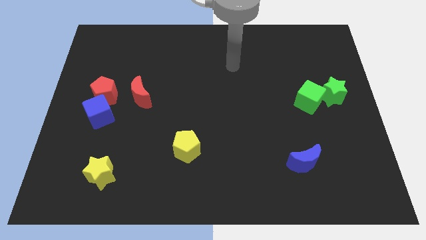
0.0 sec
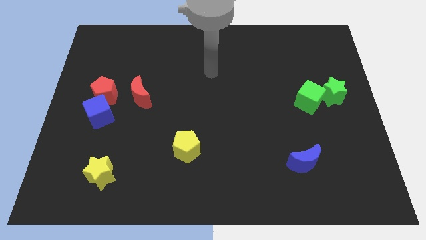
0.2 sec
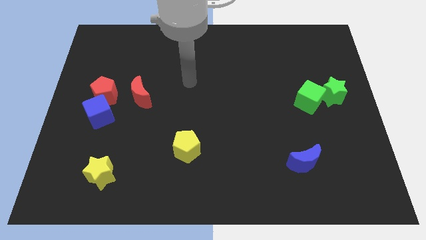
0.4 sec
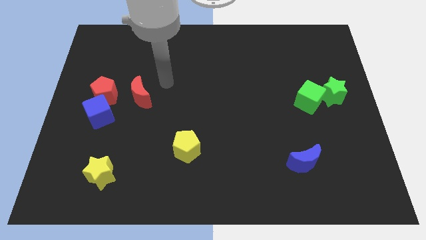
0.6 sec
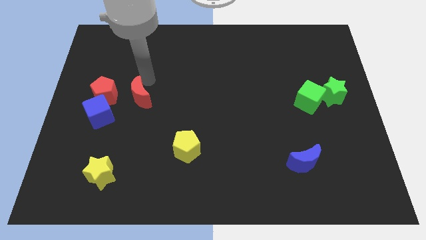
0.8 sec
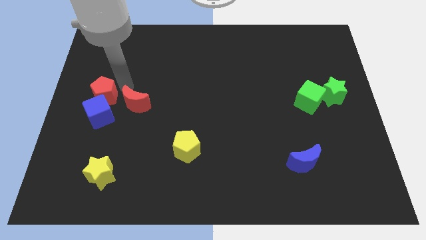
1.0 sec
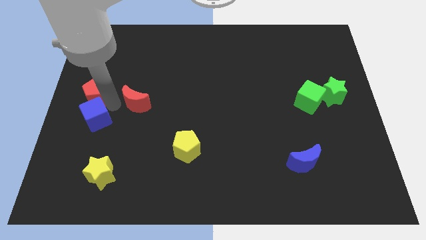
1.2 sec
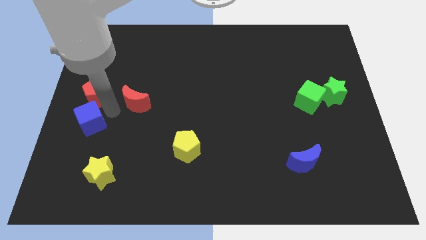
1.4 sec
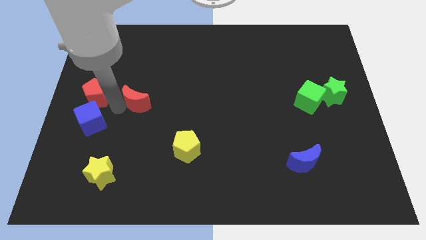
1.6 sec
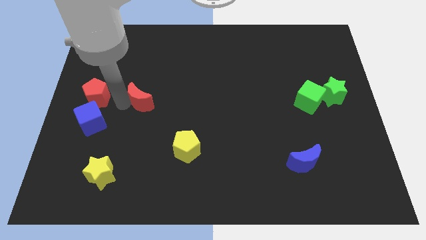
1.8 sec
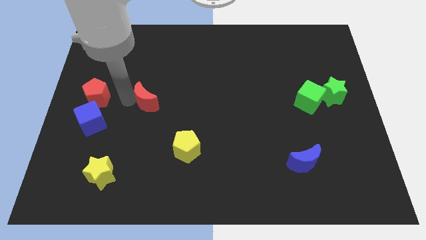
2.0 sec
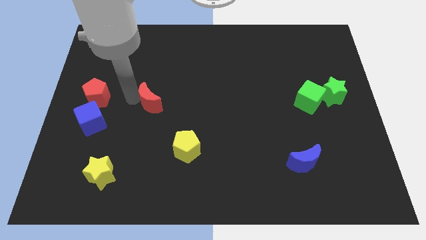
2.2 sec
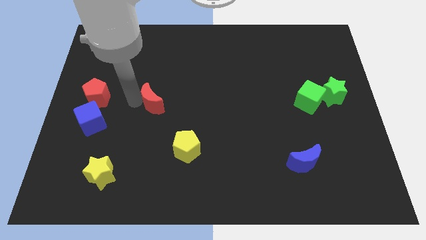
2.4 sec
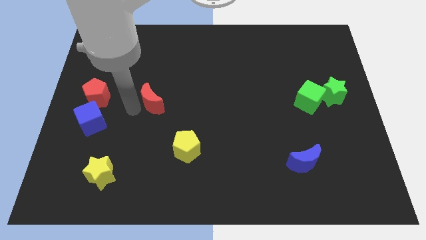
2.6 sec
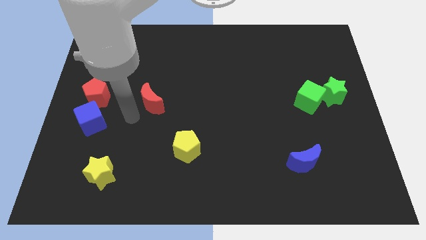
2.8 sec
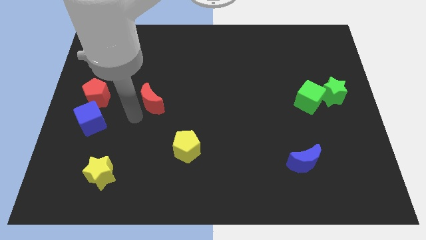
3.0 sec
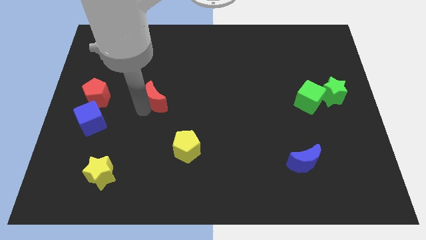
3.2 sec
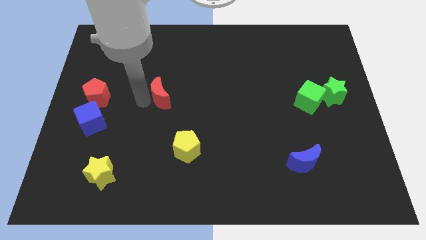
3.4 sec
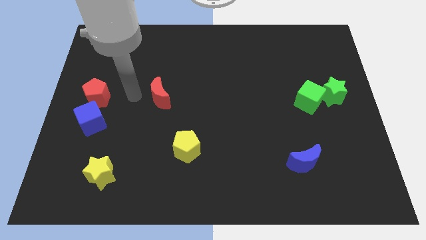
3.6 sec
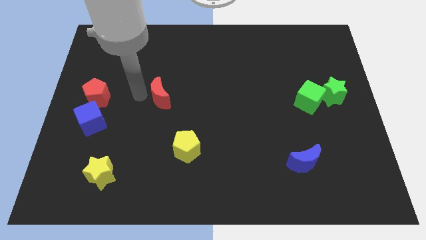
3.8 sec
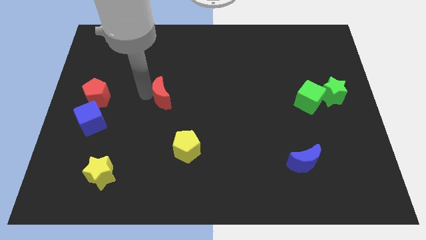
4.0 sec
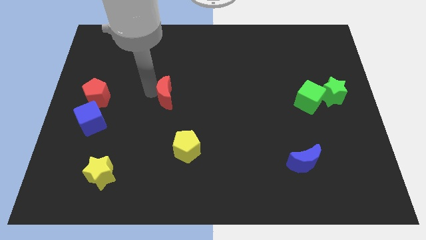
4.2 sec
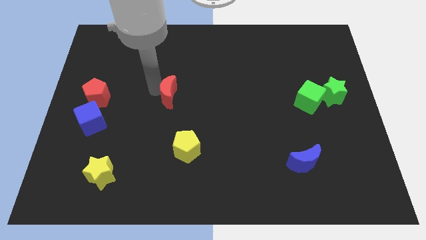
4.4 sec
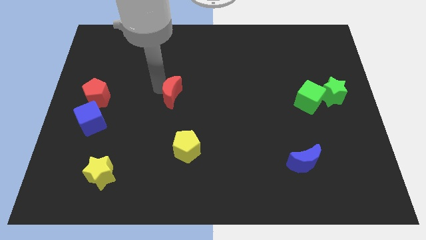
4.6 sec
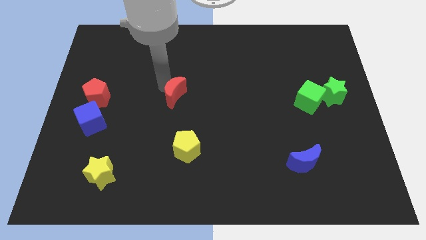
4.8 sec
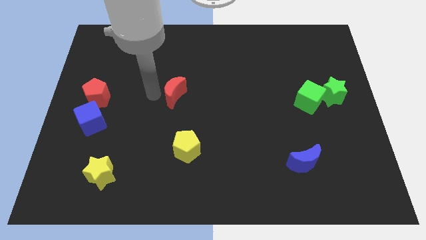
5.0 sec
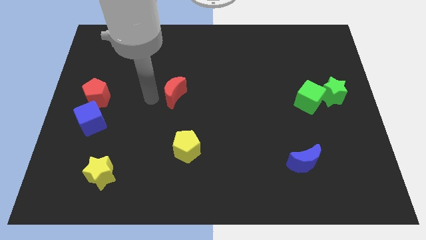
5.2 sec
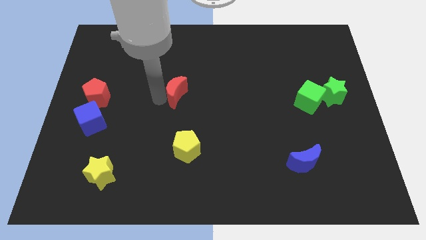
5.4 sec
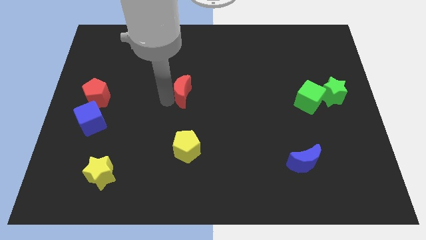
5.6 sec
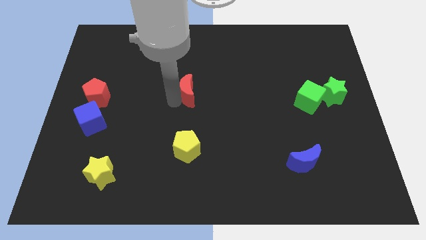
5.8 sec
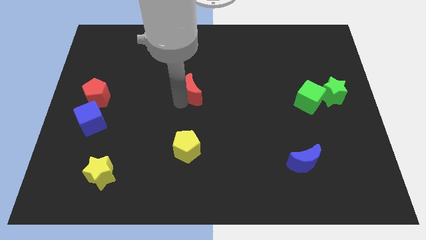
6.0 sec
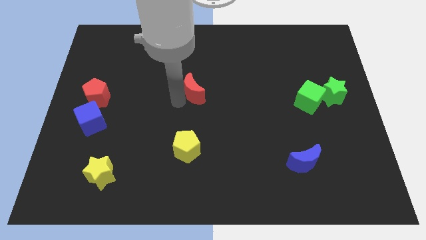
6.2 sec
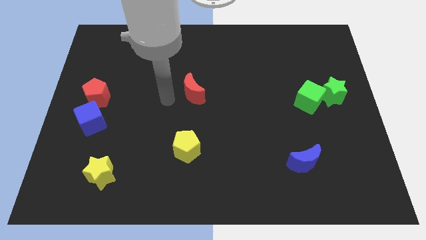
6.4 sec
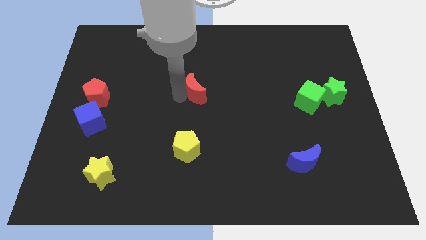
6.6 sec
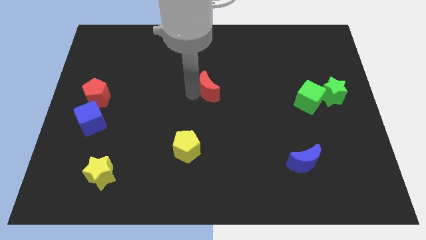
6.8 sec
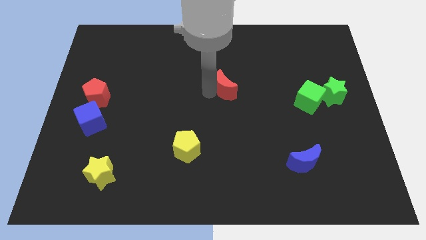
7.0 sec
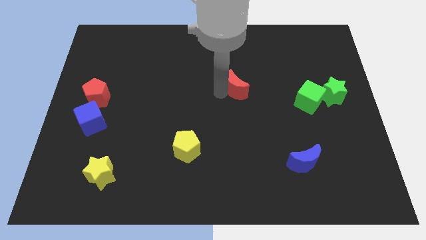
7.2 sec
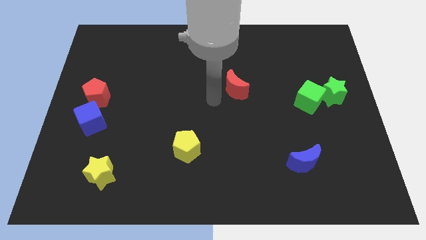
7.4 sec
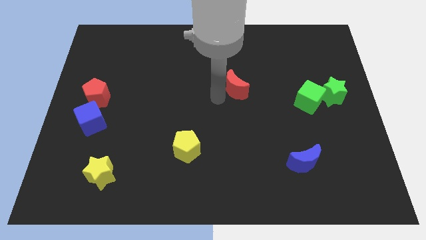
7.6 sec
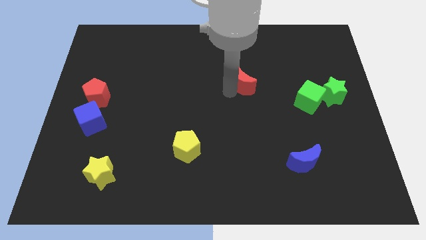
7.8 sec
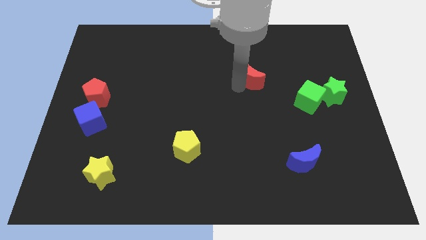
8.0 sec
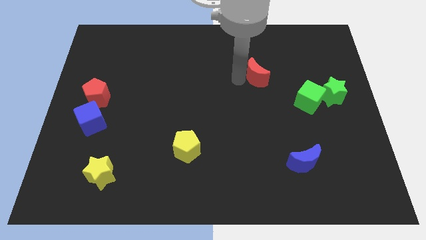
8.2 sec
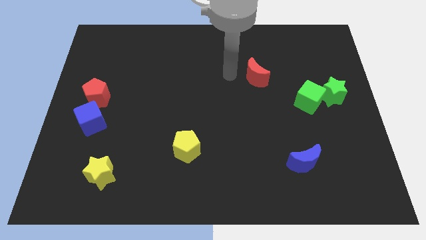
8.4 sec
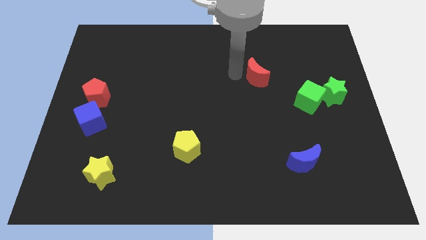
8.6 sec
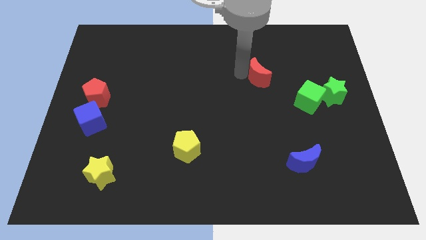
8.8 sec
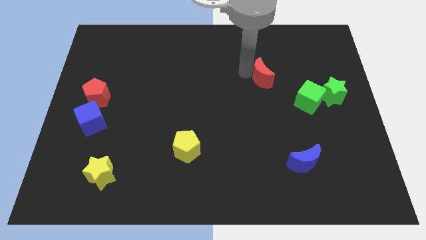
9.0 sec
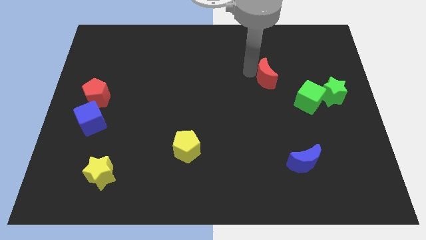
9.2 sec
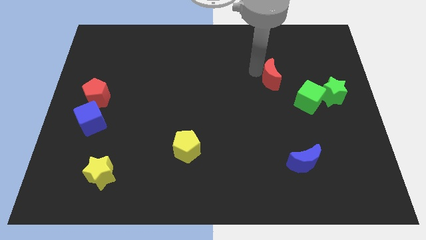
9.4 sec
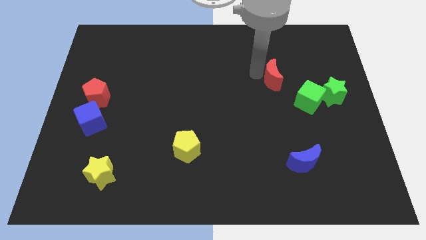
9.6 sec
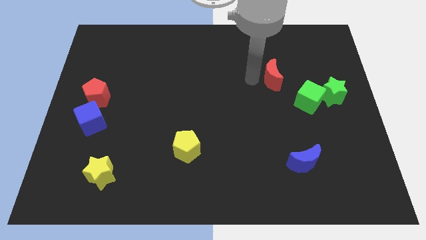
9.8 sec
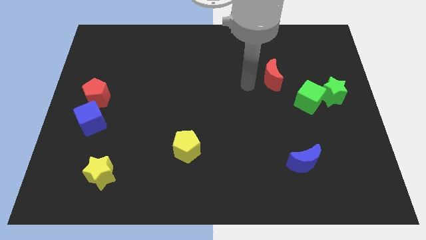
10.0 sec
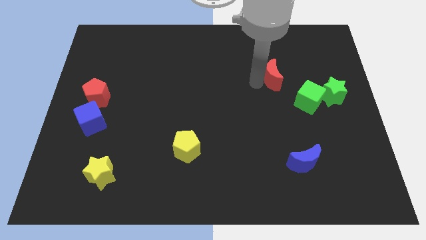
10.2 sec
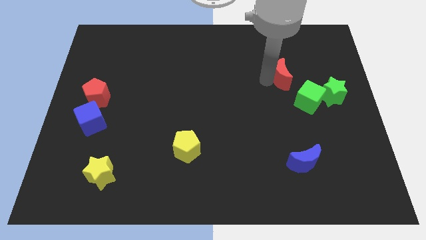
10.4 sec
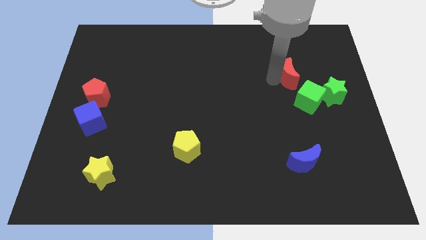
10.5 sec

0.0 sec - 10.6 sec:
slide the red moon to the top side of the green cube

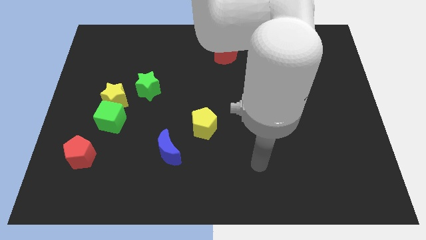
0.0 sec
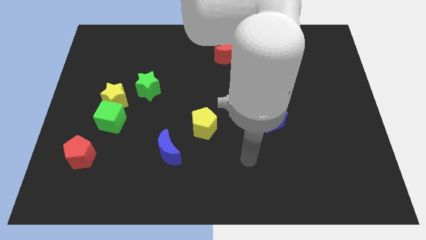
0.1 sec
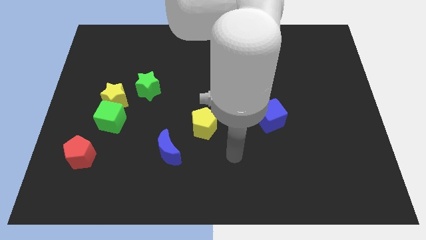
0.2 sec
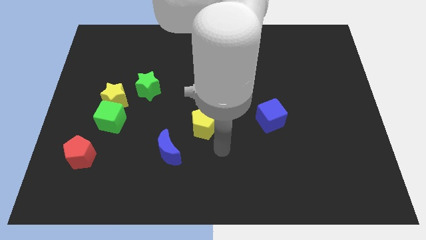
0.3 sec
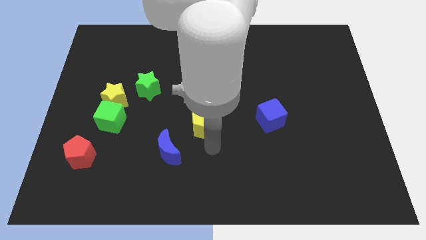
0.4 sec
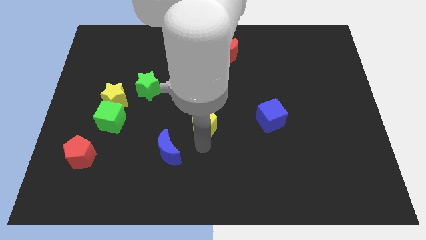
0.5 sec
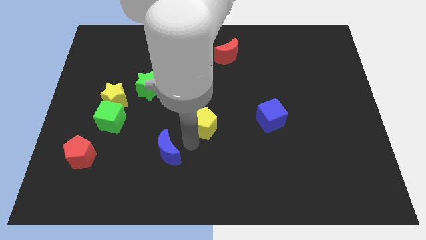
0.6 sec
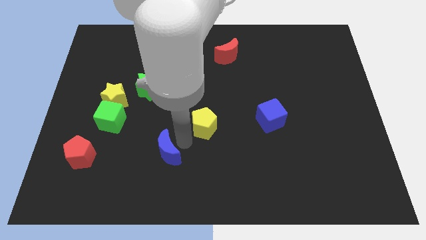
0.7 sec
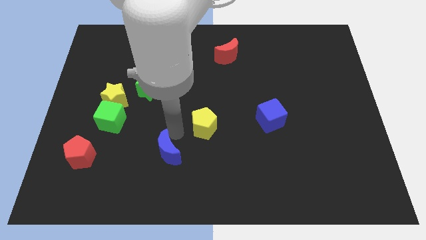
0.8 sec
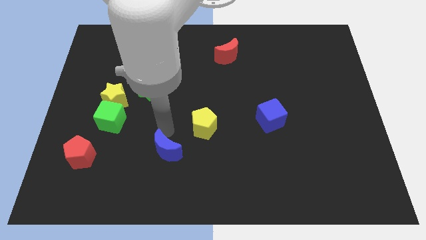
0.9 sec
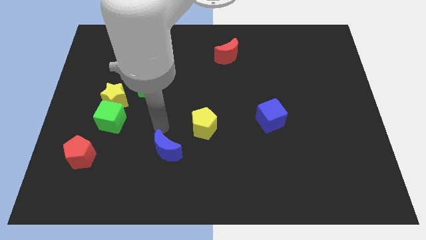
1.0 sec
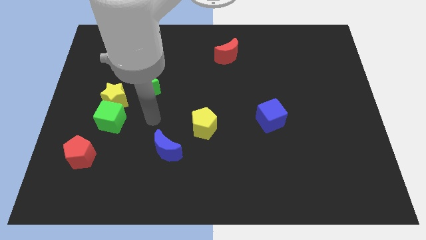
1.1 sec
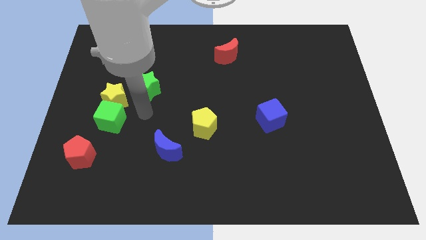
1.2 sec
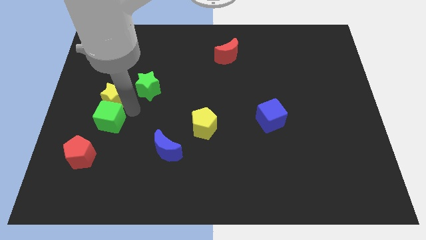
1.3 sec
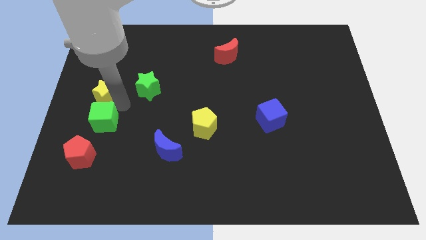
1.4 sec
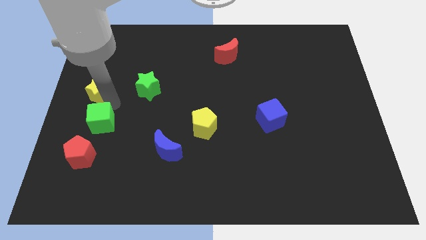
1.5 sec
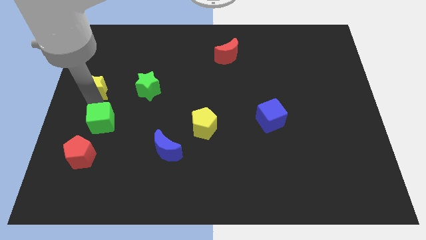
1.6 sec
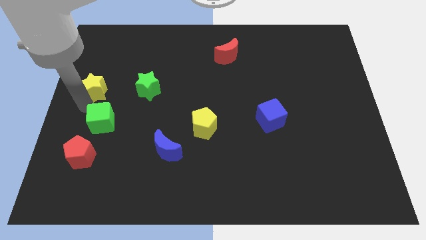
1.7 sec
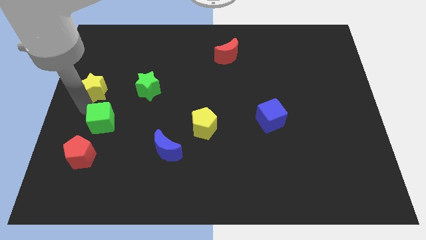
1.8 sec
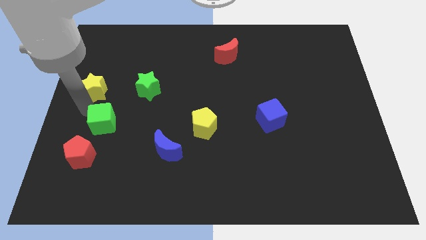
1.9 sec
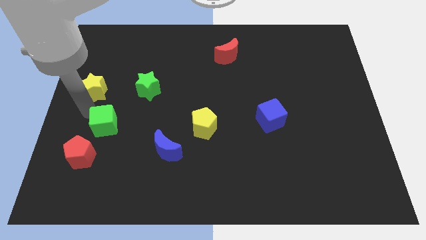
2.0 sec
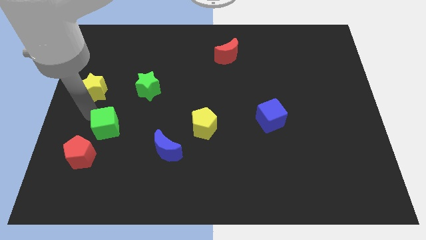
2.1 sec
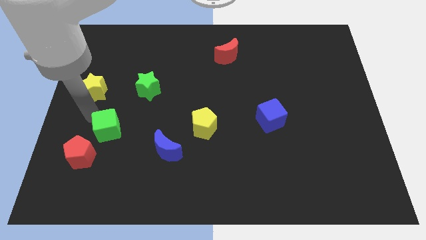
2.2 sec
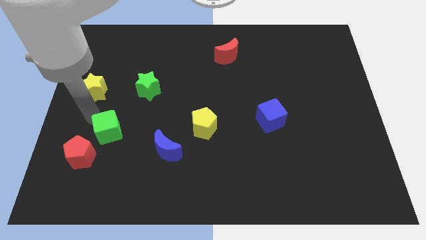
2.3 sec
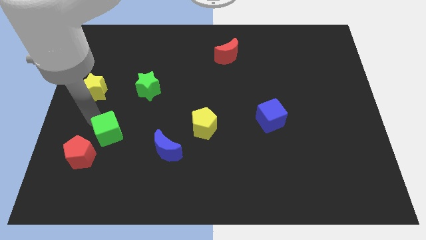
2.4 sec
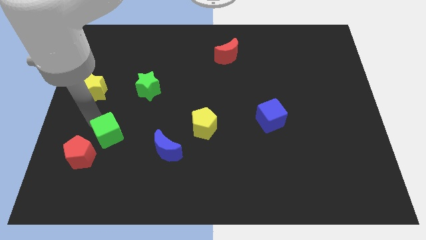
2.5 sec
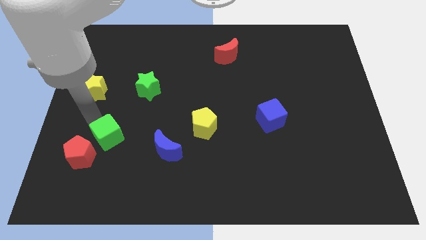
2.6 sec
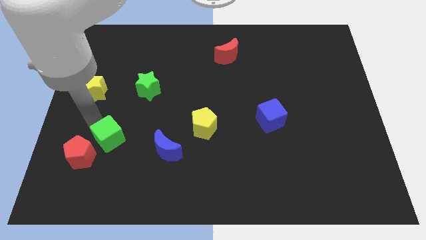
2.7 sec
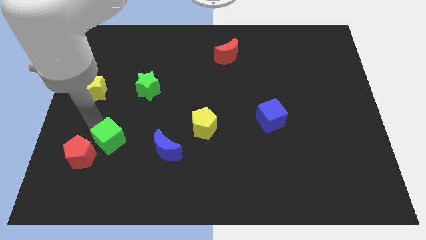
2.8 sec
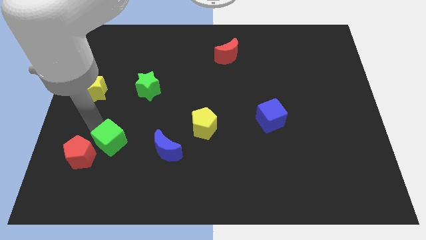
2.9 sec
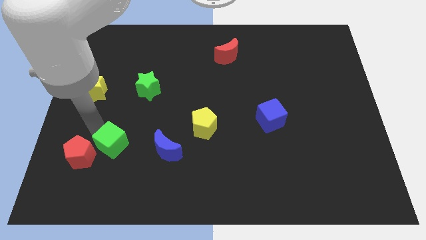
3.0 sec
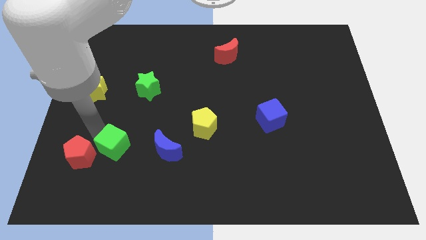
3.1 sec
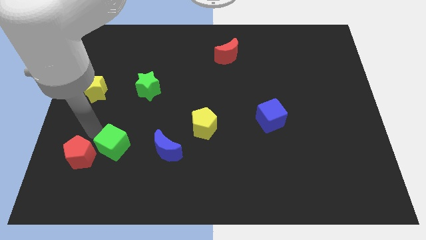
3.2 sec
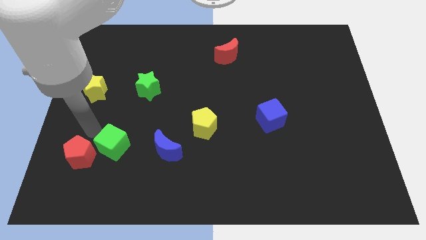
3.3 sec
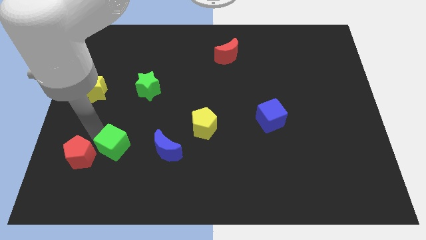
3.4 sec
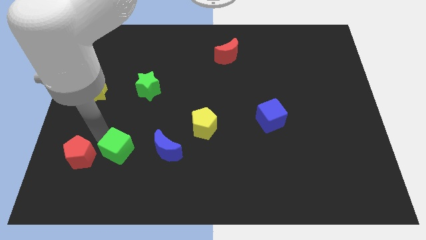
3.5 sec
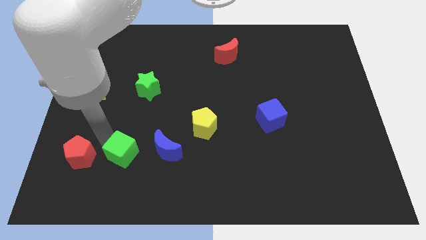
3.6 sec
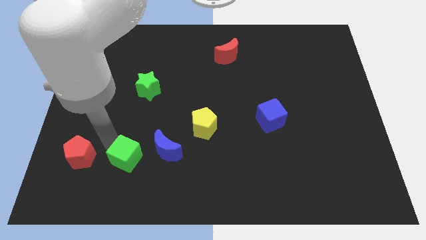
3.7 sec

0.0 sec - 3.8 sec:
move the green cube to the bottom left of the blue moon
